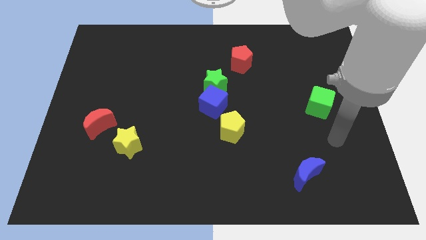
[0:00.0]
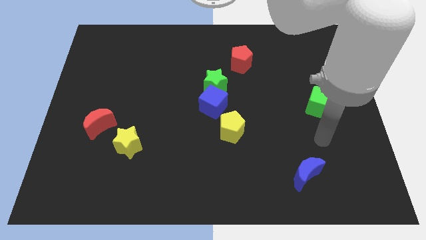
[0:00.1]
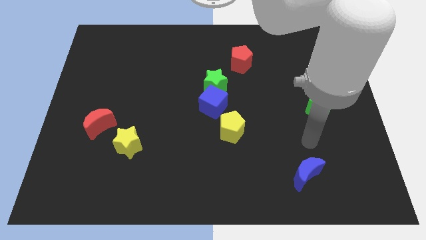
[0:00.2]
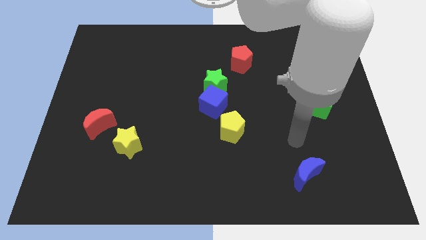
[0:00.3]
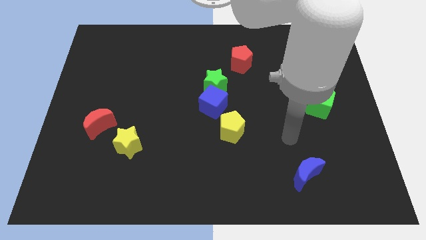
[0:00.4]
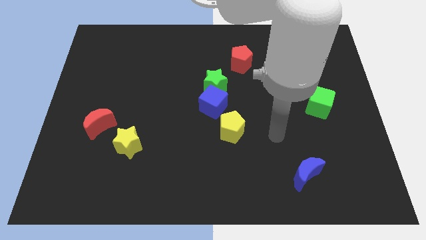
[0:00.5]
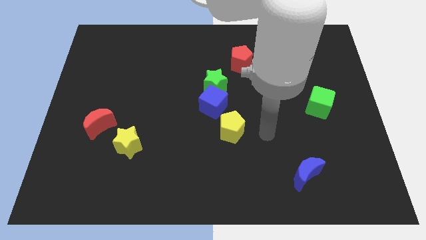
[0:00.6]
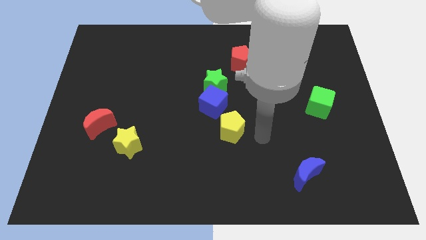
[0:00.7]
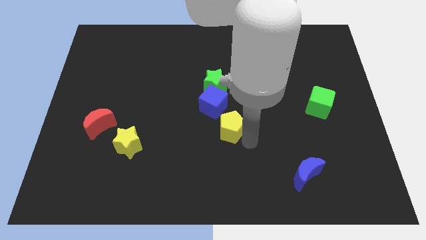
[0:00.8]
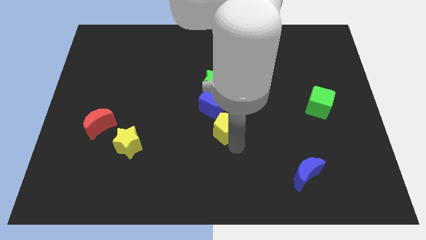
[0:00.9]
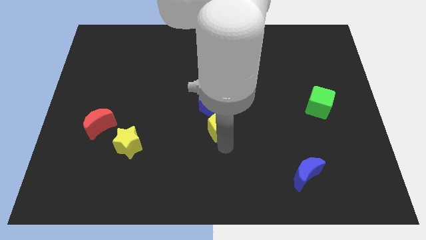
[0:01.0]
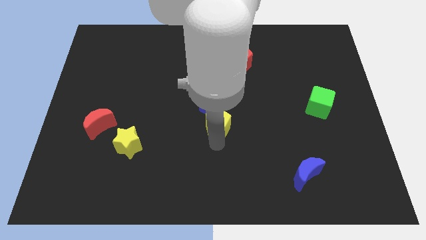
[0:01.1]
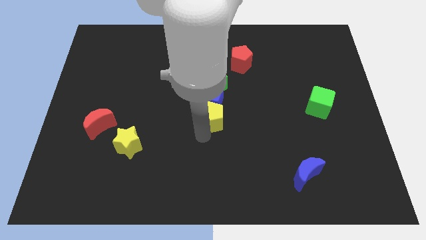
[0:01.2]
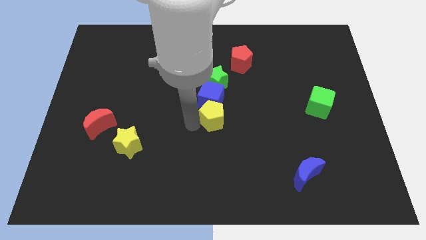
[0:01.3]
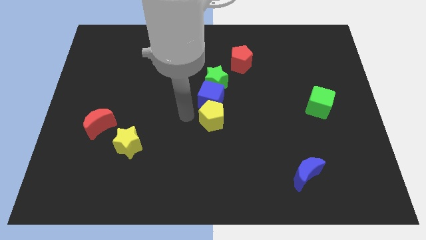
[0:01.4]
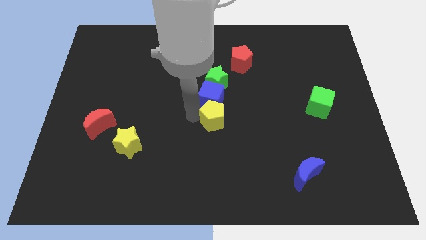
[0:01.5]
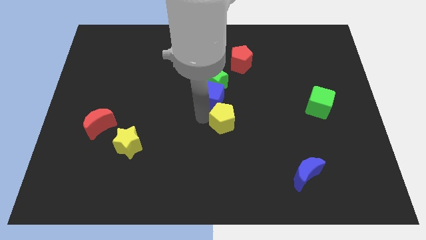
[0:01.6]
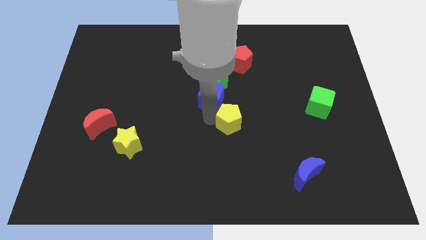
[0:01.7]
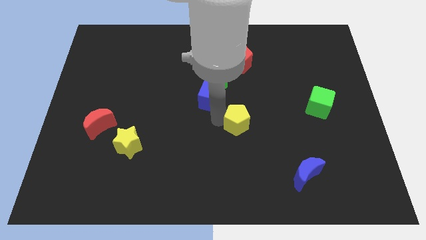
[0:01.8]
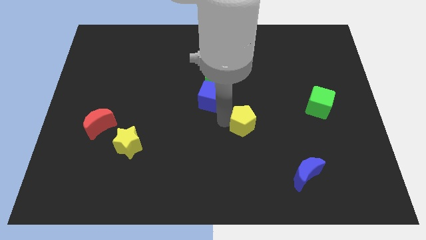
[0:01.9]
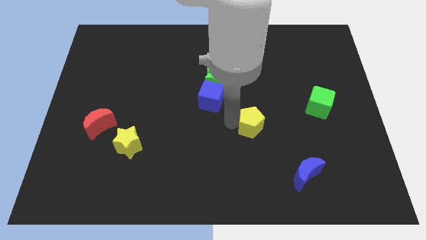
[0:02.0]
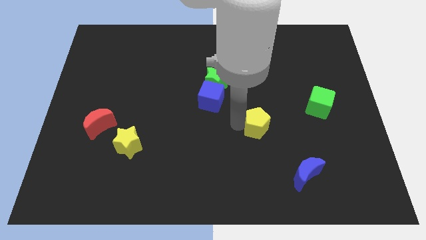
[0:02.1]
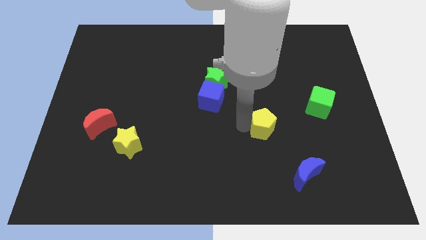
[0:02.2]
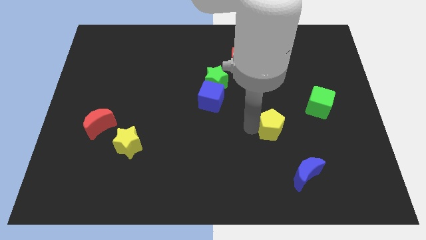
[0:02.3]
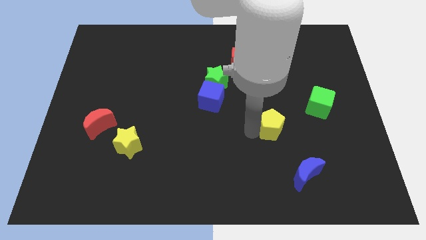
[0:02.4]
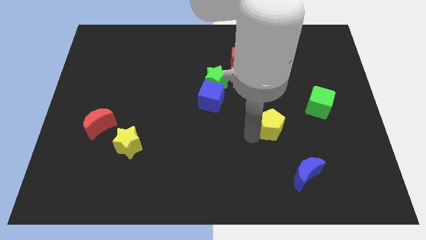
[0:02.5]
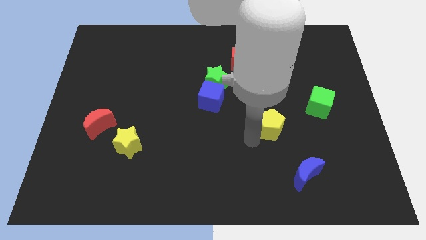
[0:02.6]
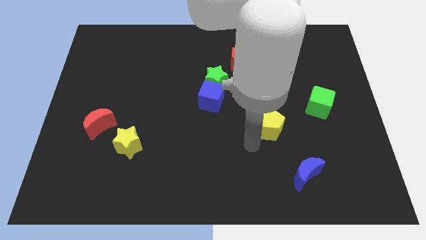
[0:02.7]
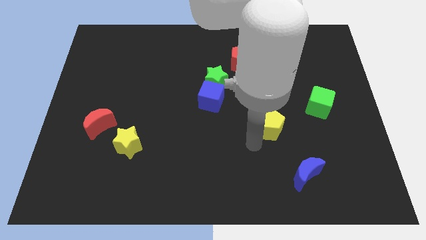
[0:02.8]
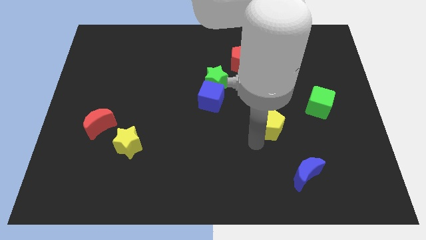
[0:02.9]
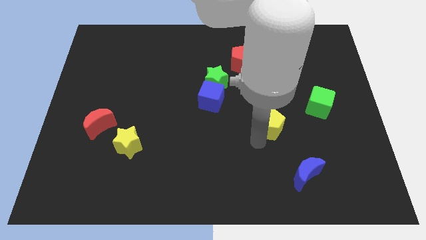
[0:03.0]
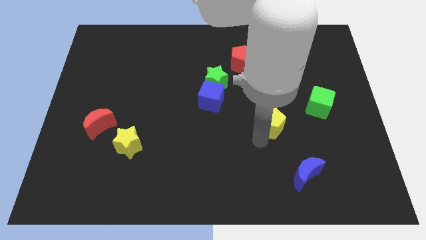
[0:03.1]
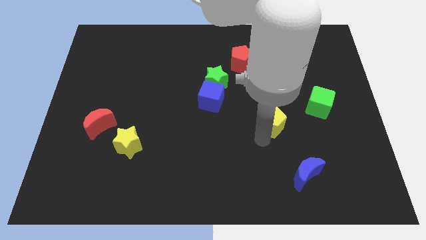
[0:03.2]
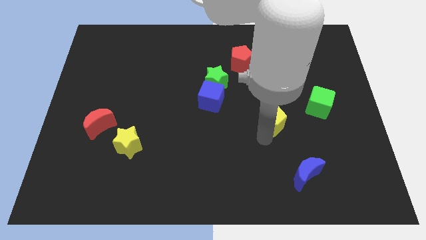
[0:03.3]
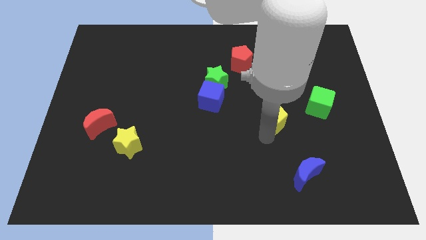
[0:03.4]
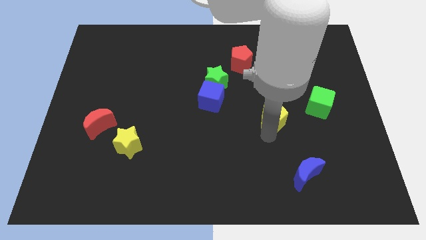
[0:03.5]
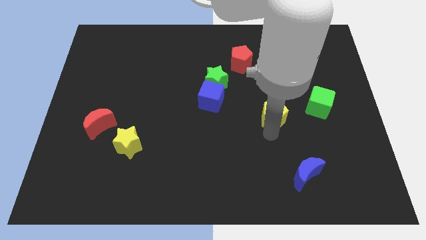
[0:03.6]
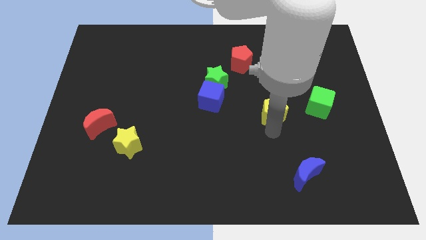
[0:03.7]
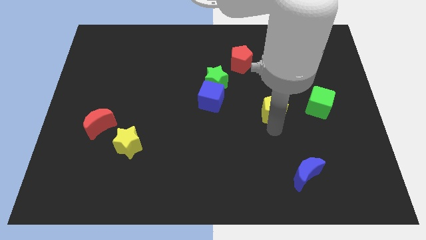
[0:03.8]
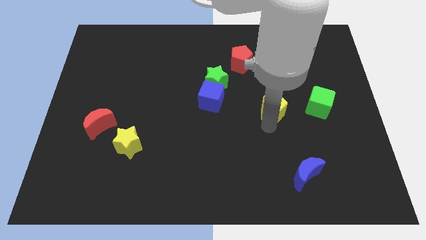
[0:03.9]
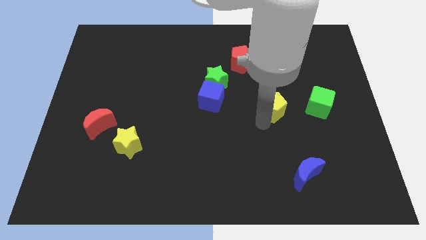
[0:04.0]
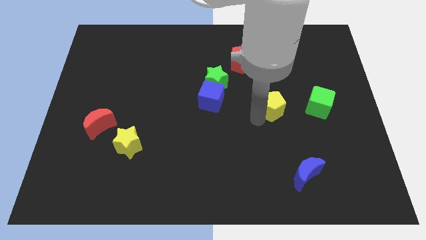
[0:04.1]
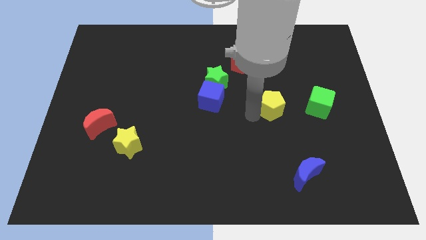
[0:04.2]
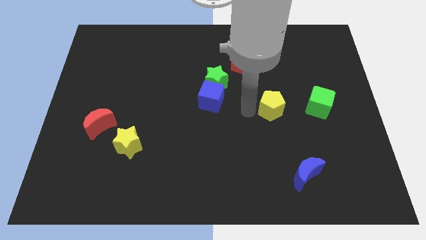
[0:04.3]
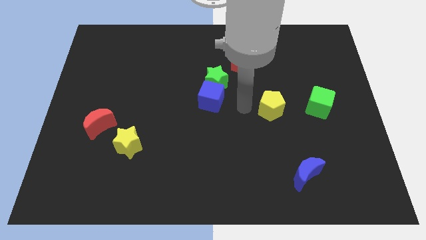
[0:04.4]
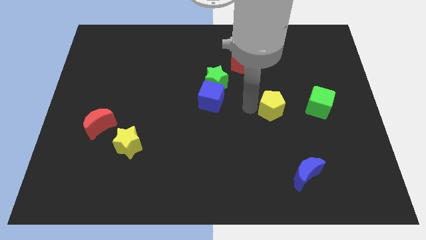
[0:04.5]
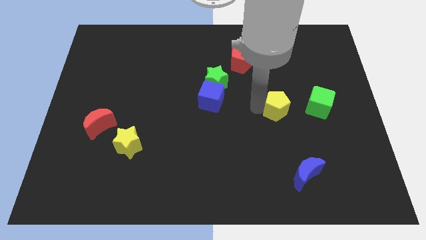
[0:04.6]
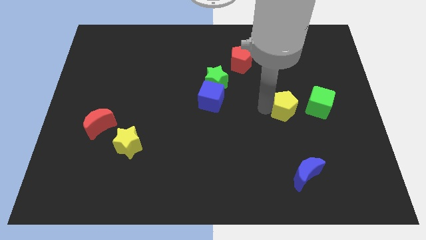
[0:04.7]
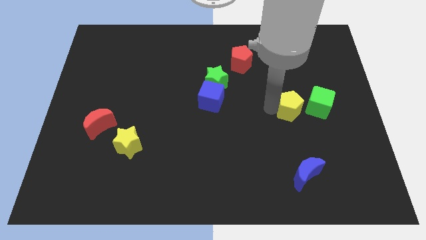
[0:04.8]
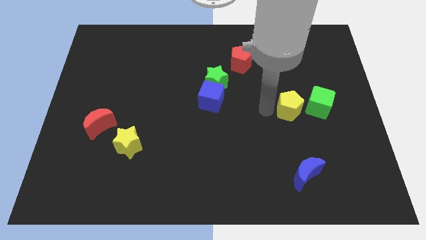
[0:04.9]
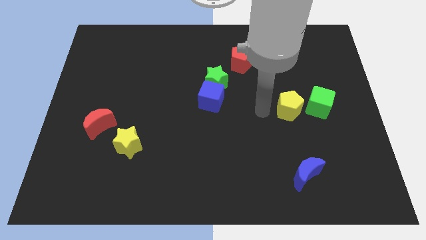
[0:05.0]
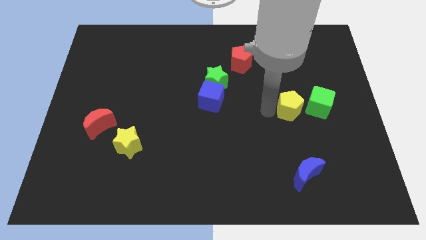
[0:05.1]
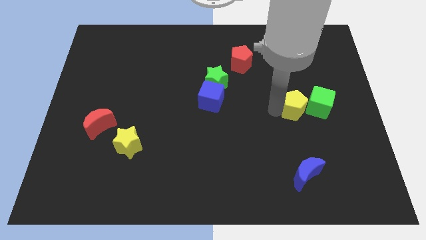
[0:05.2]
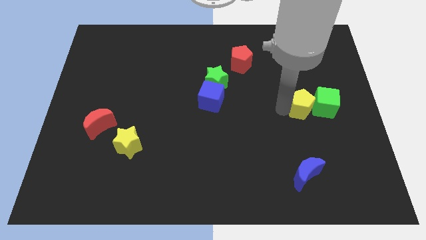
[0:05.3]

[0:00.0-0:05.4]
put the yellow pentagon close to the green cube

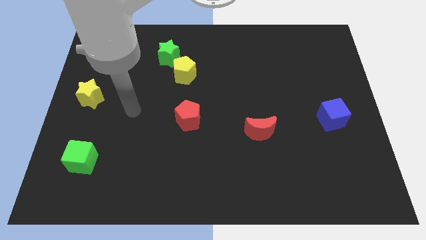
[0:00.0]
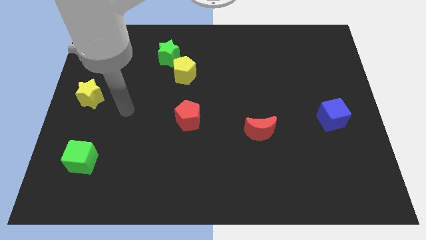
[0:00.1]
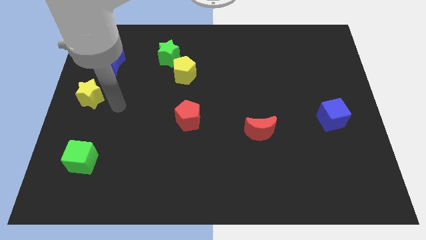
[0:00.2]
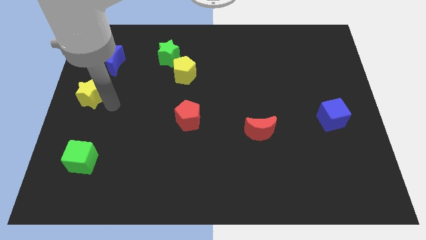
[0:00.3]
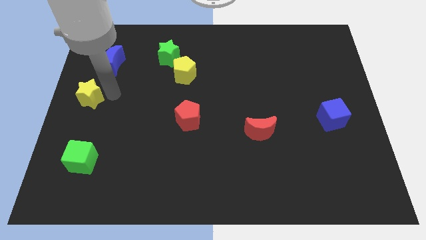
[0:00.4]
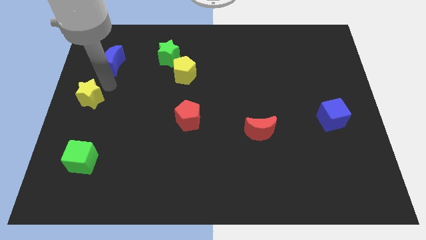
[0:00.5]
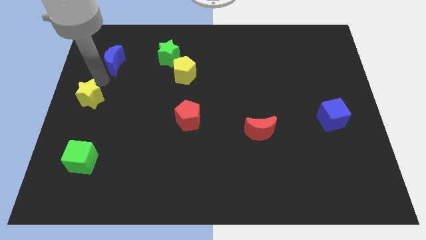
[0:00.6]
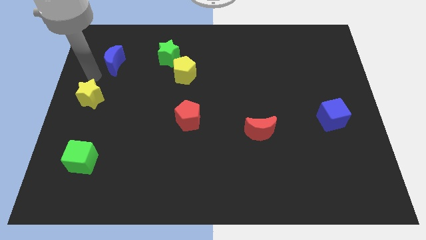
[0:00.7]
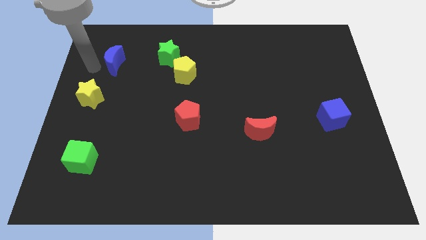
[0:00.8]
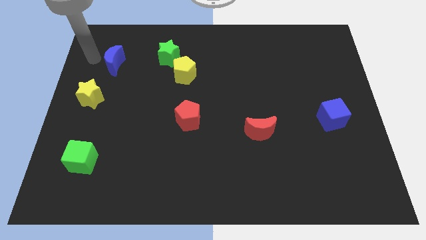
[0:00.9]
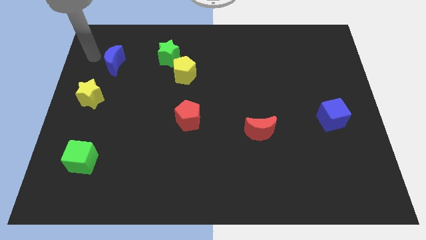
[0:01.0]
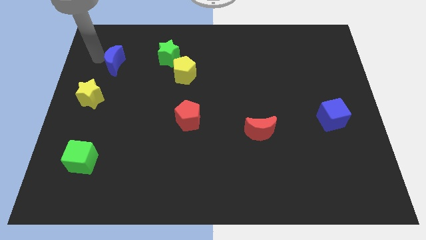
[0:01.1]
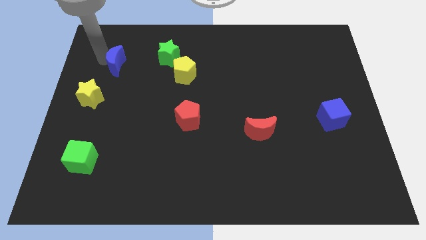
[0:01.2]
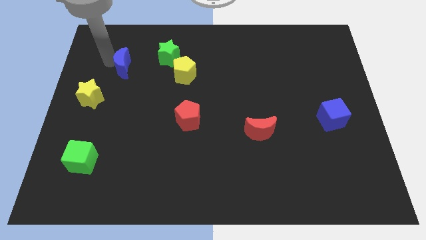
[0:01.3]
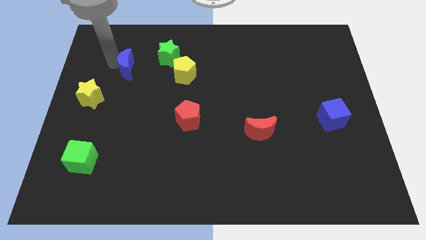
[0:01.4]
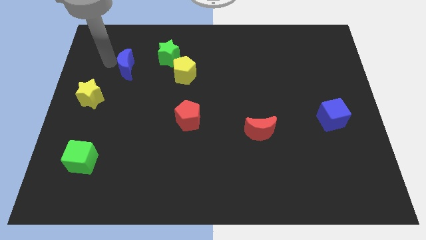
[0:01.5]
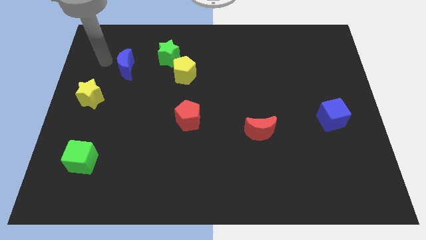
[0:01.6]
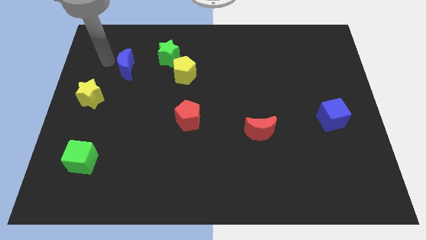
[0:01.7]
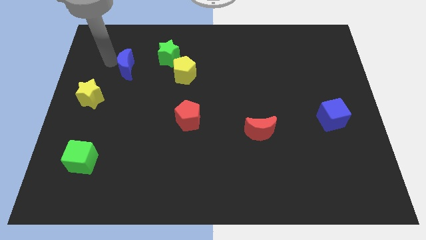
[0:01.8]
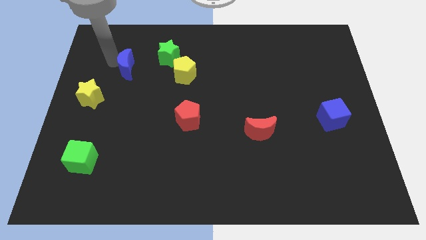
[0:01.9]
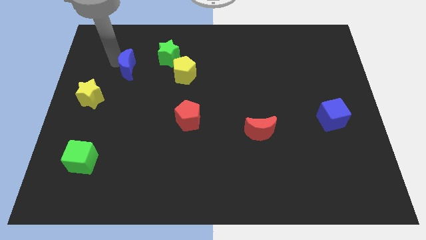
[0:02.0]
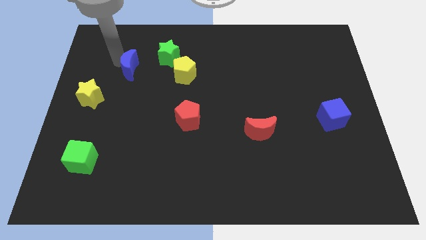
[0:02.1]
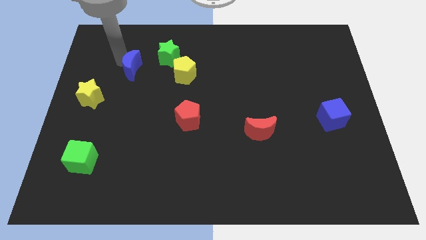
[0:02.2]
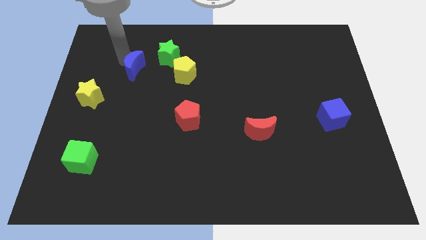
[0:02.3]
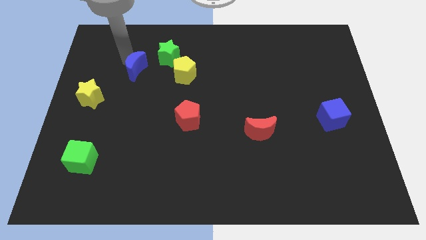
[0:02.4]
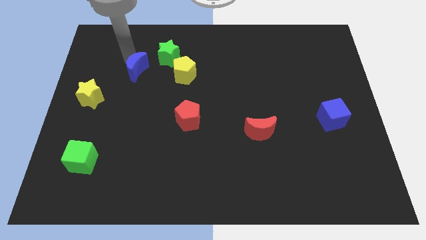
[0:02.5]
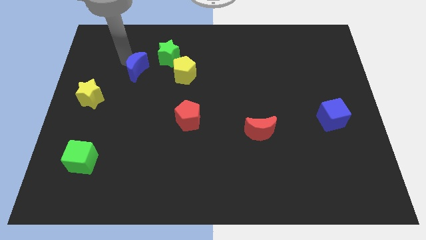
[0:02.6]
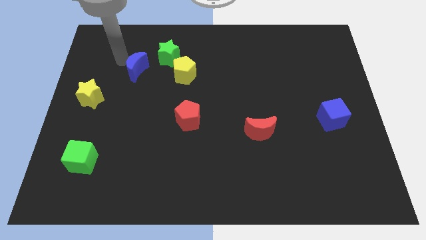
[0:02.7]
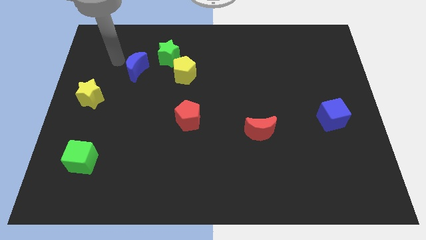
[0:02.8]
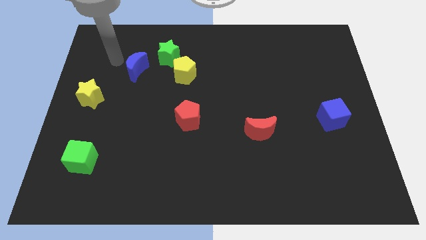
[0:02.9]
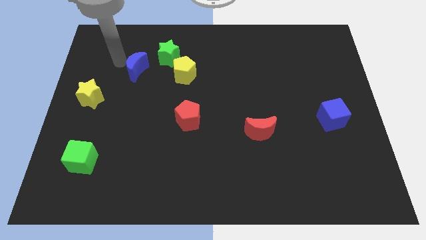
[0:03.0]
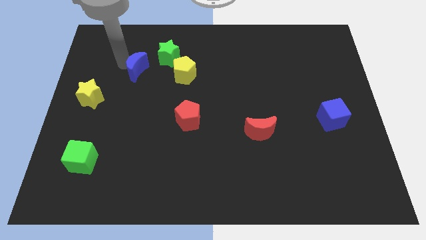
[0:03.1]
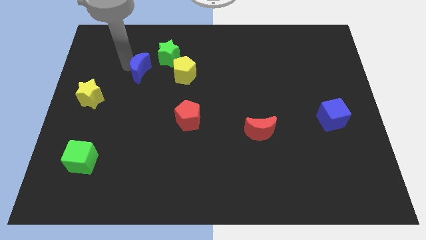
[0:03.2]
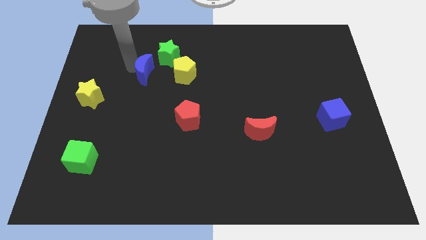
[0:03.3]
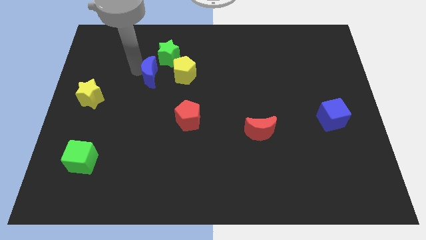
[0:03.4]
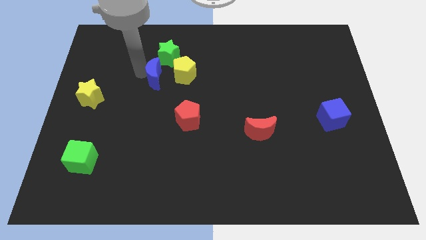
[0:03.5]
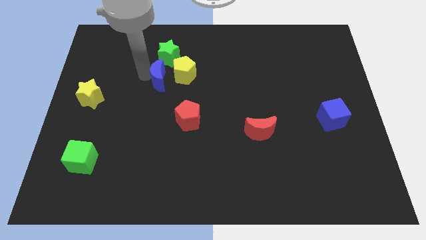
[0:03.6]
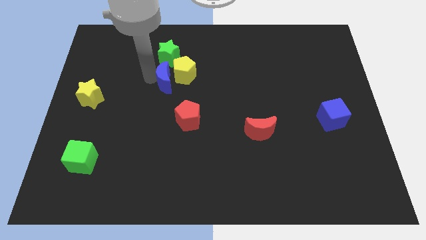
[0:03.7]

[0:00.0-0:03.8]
move the blue moon towards the yellow pentagon
